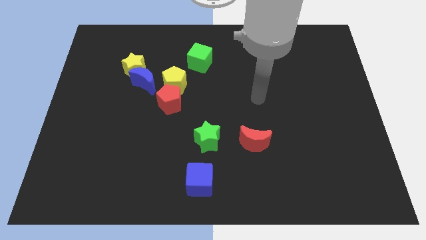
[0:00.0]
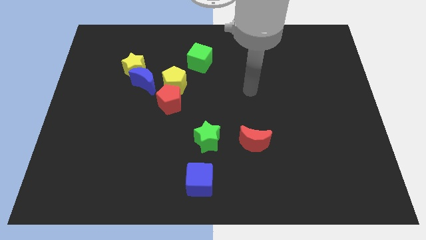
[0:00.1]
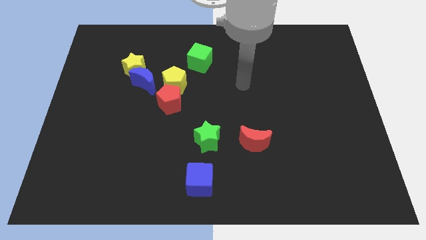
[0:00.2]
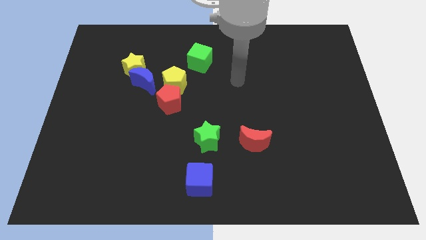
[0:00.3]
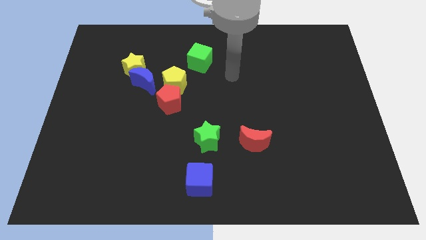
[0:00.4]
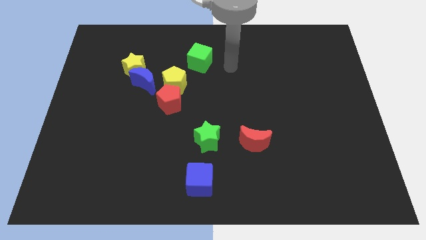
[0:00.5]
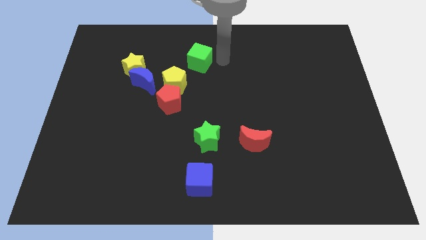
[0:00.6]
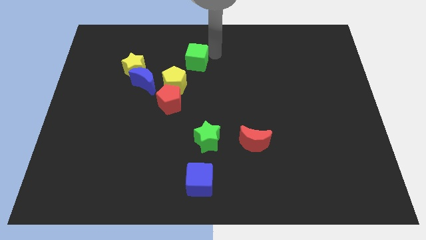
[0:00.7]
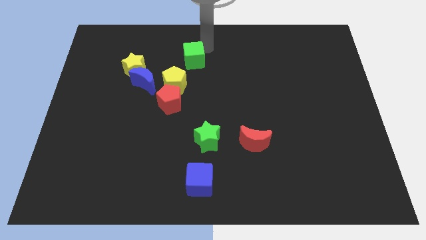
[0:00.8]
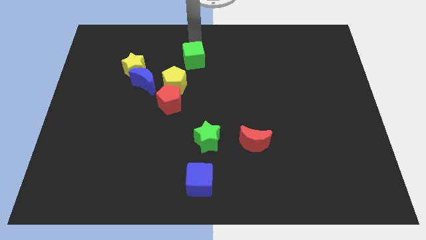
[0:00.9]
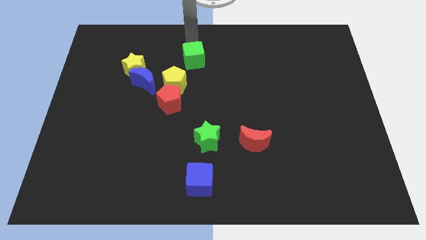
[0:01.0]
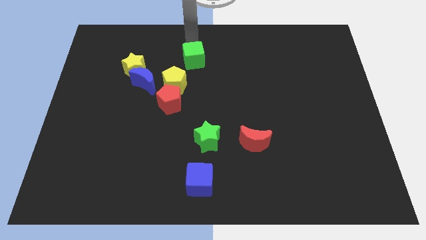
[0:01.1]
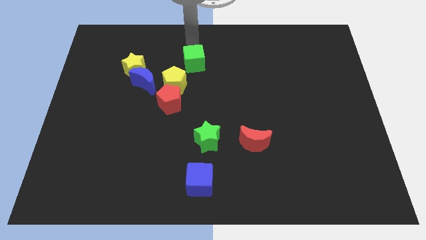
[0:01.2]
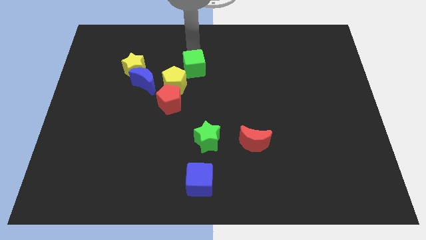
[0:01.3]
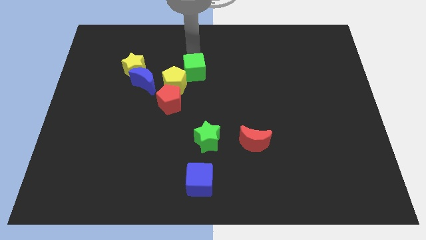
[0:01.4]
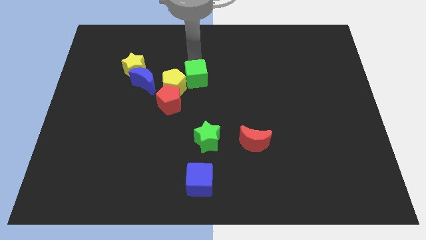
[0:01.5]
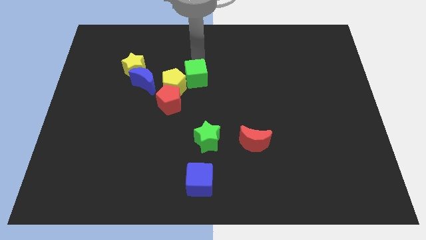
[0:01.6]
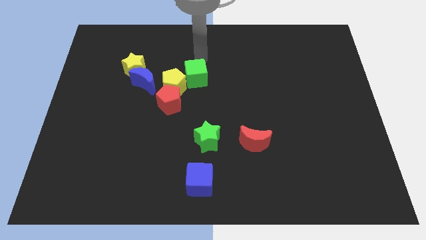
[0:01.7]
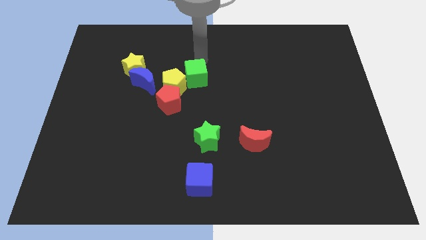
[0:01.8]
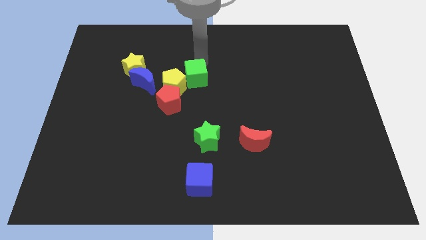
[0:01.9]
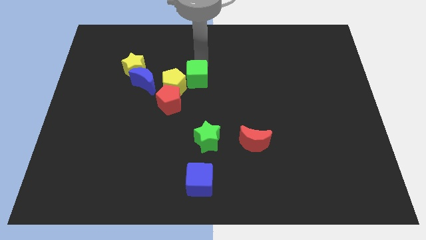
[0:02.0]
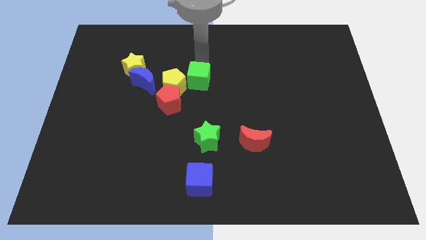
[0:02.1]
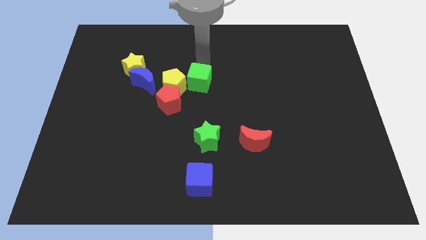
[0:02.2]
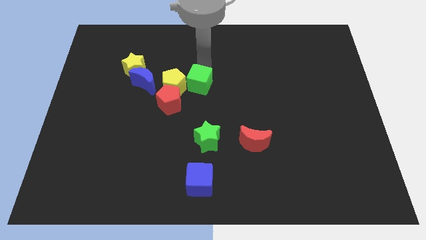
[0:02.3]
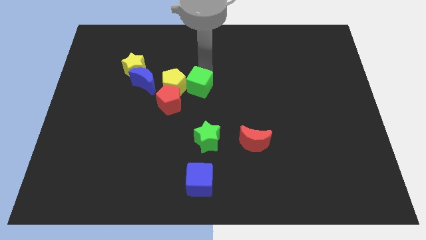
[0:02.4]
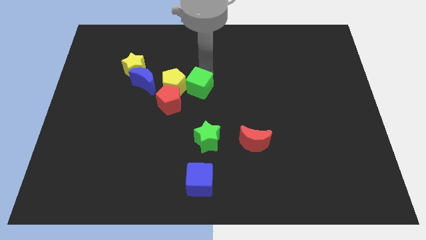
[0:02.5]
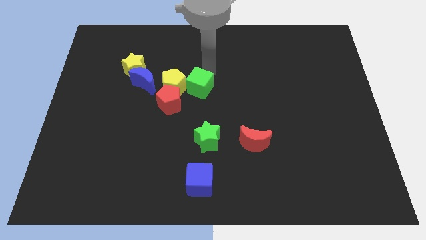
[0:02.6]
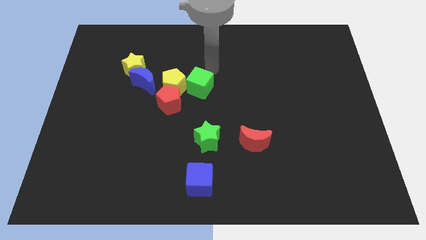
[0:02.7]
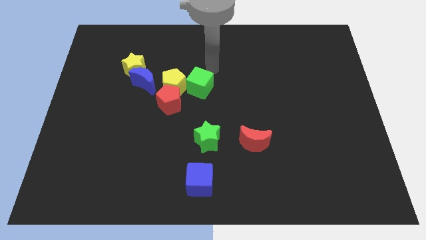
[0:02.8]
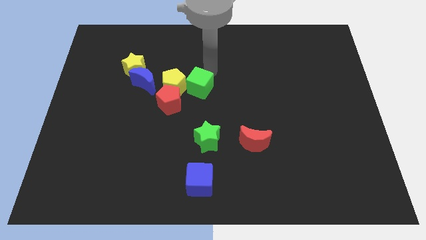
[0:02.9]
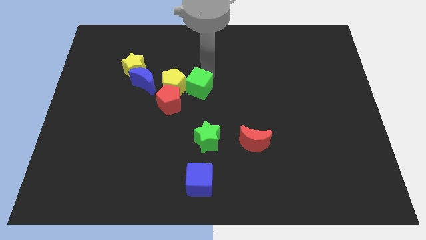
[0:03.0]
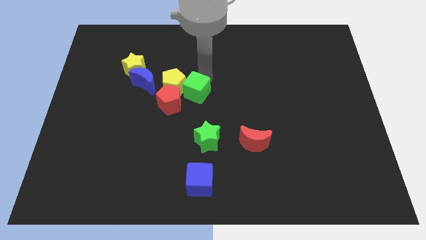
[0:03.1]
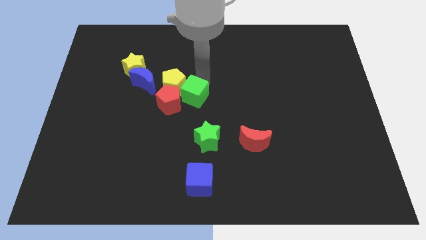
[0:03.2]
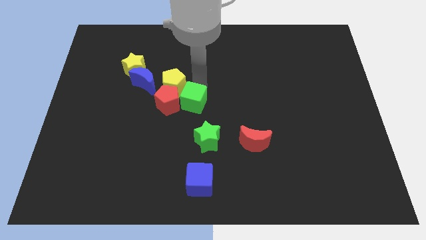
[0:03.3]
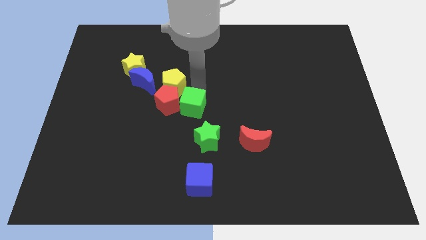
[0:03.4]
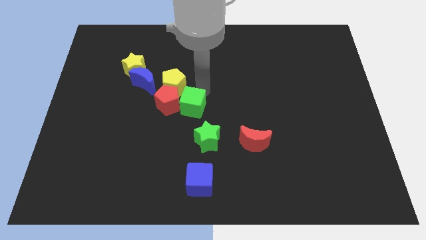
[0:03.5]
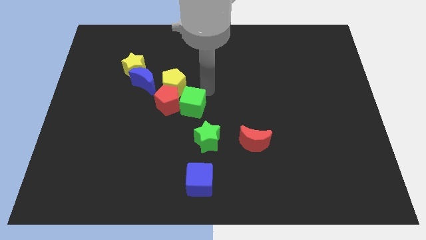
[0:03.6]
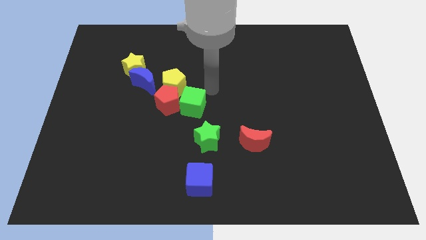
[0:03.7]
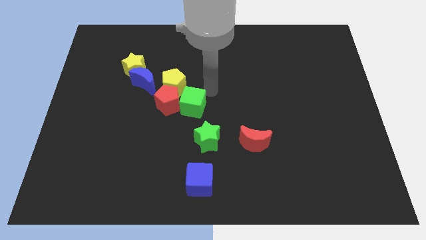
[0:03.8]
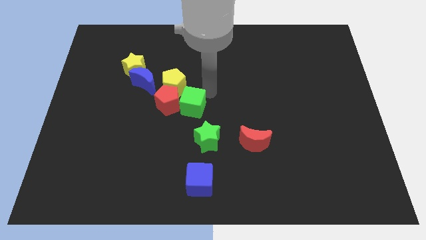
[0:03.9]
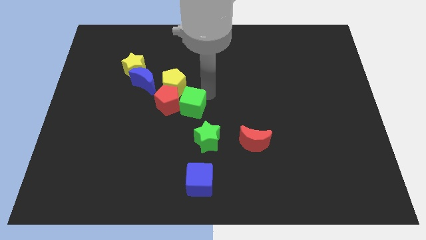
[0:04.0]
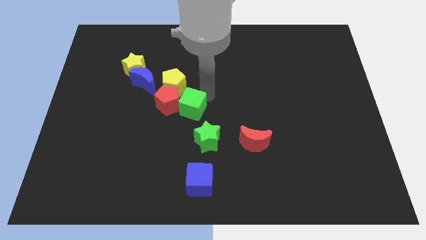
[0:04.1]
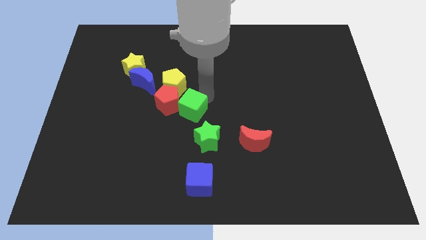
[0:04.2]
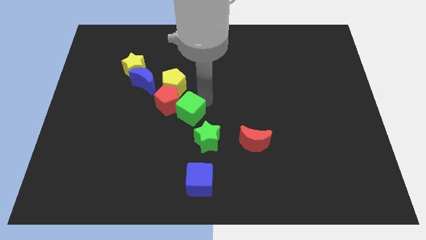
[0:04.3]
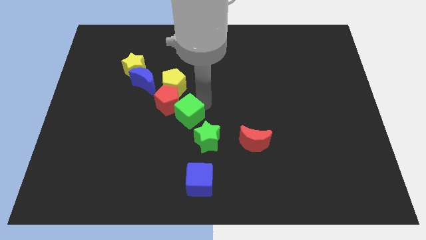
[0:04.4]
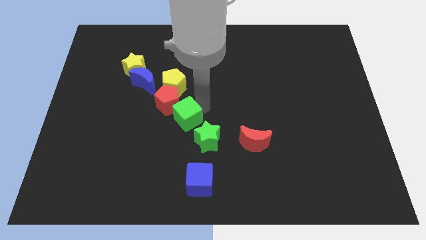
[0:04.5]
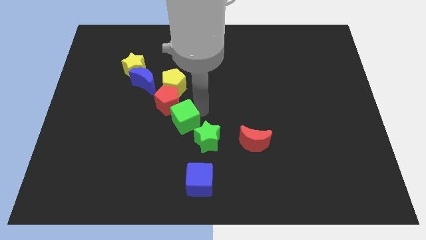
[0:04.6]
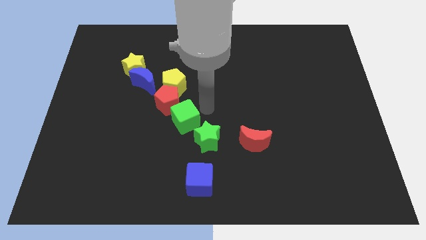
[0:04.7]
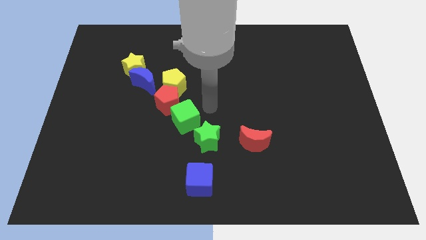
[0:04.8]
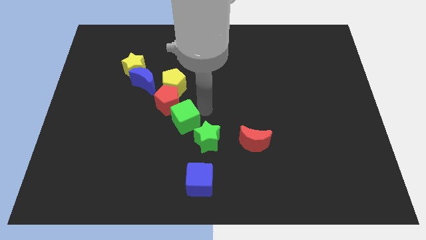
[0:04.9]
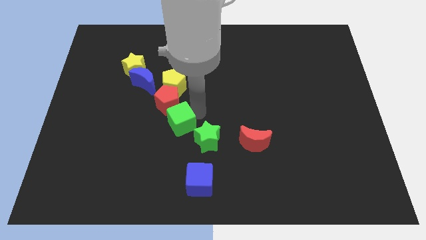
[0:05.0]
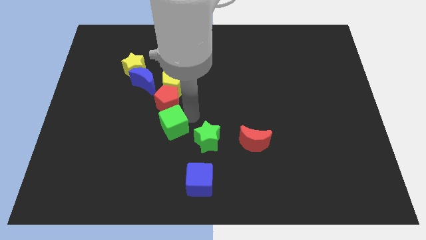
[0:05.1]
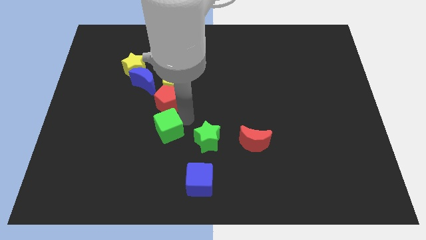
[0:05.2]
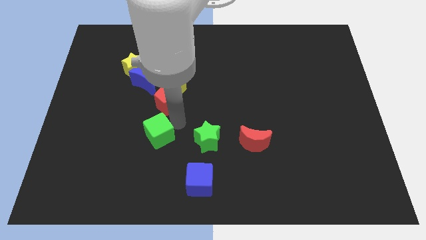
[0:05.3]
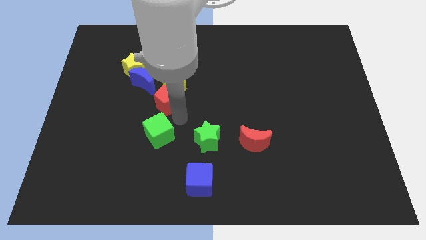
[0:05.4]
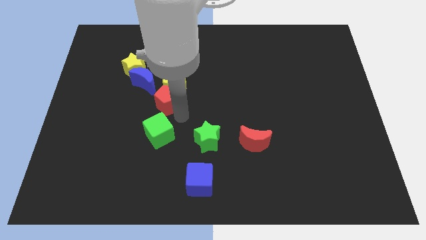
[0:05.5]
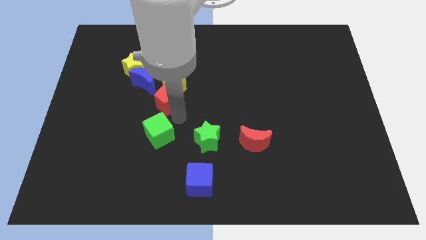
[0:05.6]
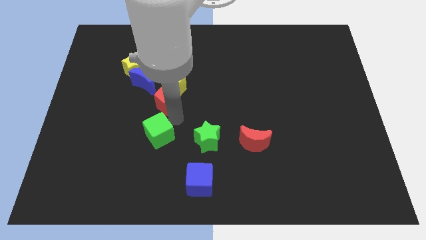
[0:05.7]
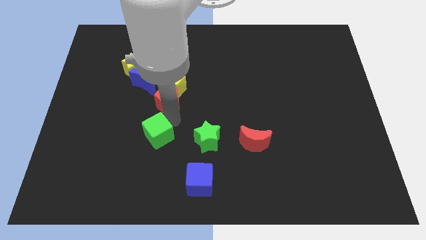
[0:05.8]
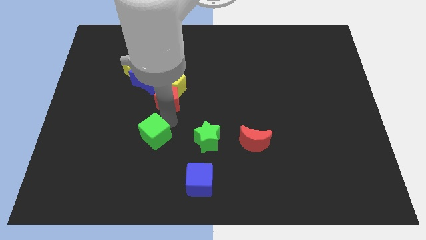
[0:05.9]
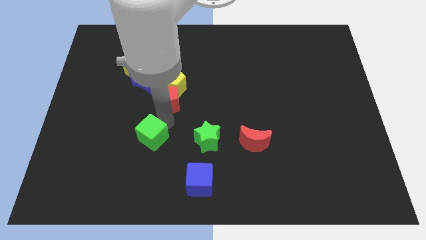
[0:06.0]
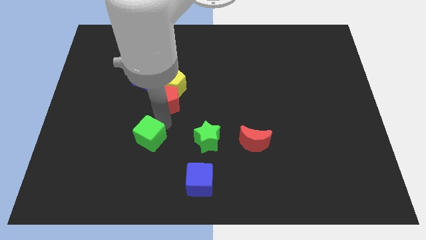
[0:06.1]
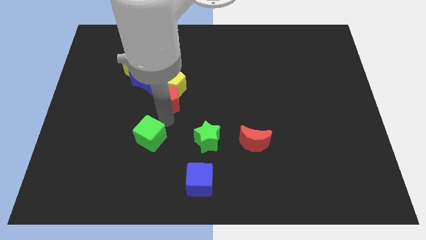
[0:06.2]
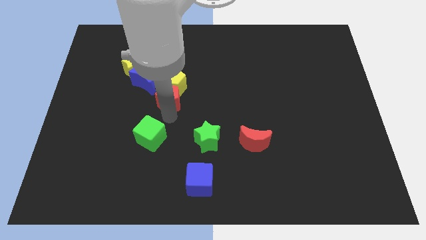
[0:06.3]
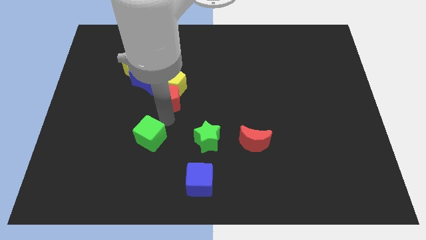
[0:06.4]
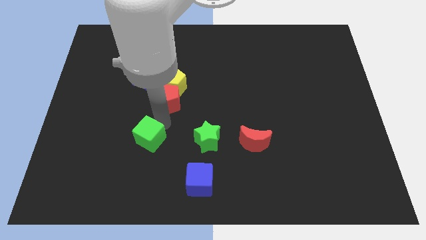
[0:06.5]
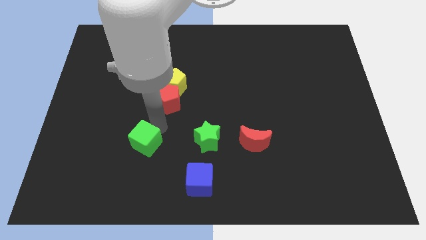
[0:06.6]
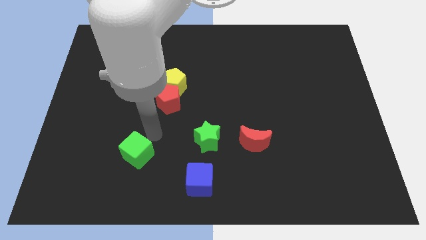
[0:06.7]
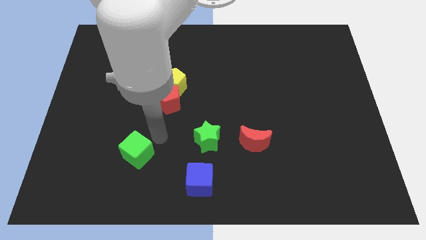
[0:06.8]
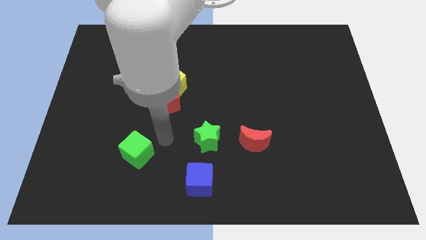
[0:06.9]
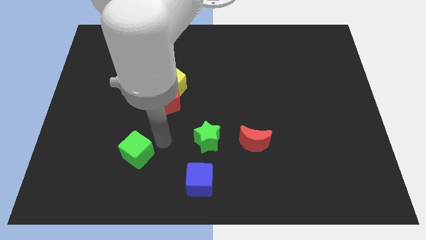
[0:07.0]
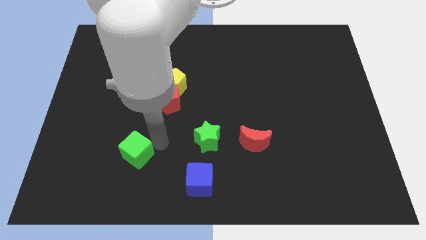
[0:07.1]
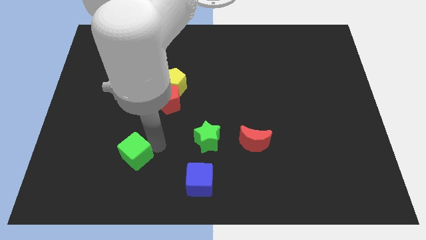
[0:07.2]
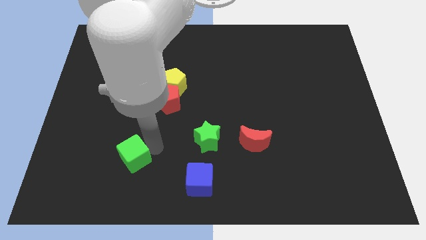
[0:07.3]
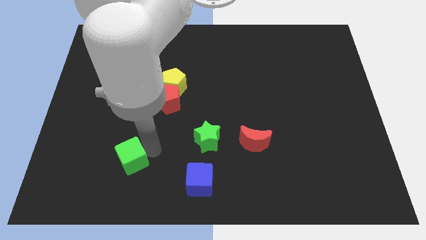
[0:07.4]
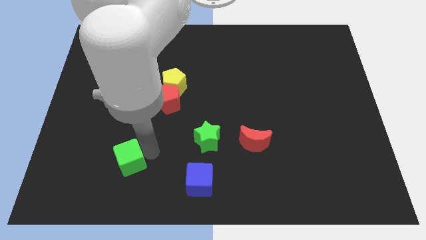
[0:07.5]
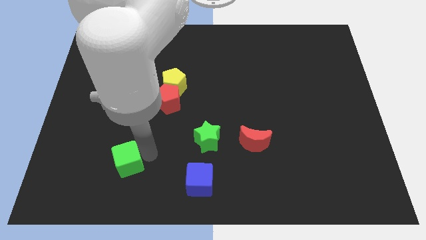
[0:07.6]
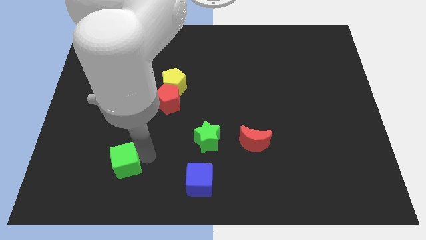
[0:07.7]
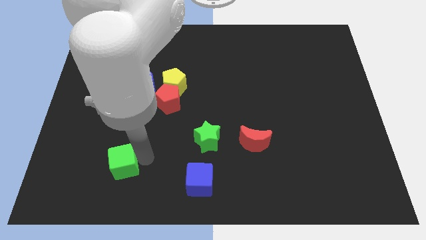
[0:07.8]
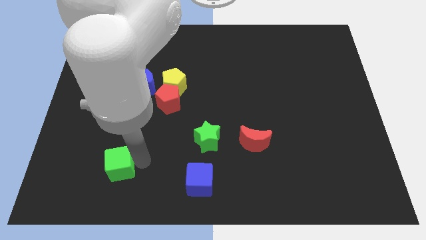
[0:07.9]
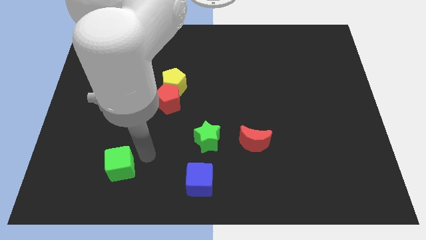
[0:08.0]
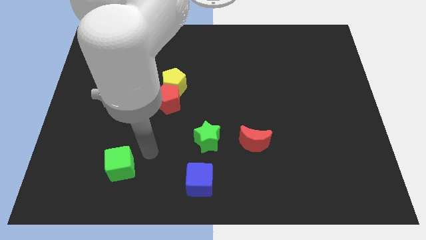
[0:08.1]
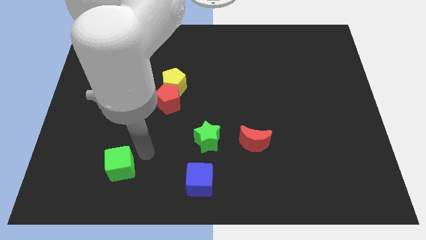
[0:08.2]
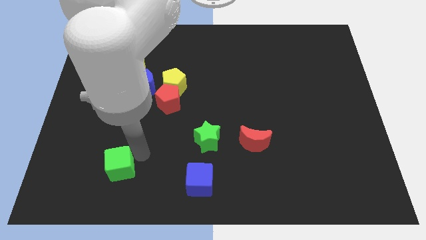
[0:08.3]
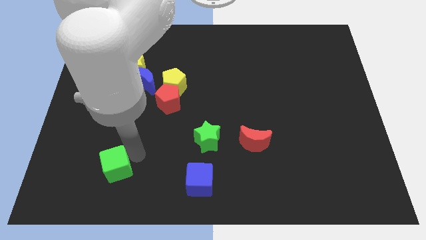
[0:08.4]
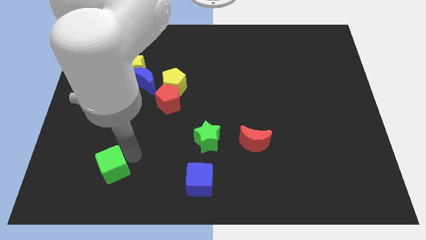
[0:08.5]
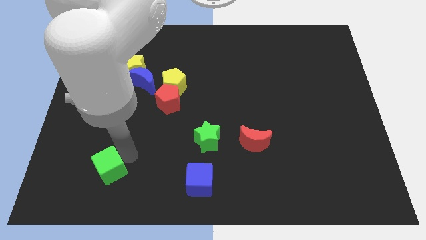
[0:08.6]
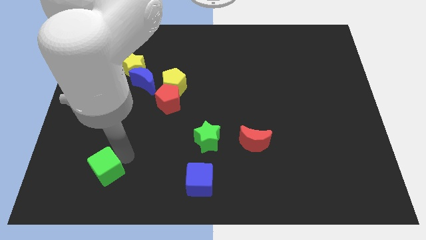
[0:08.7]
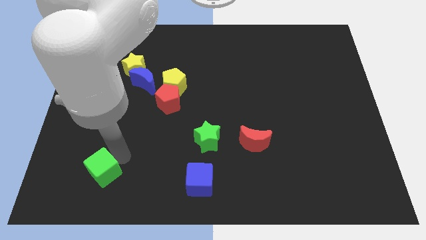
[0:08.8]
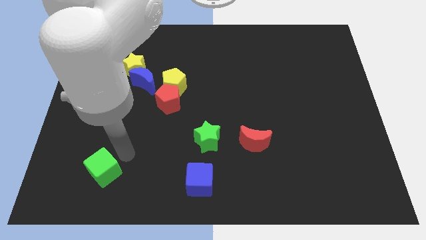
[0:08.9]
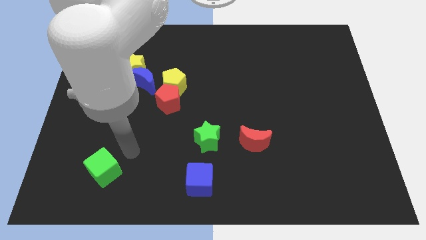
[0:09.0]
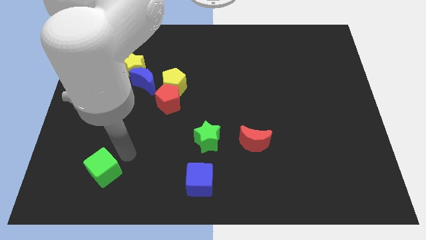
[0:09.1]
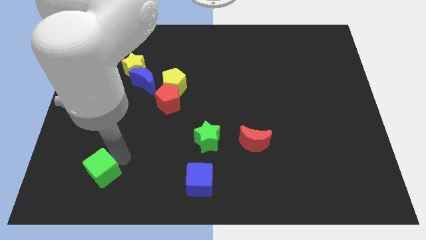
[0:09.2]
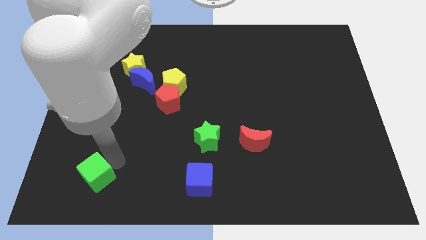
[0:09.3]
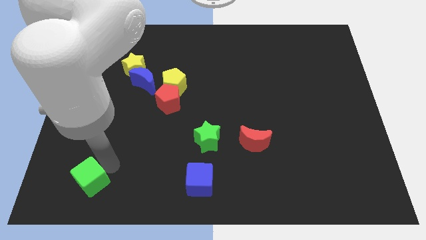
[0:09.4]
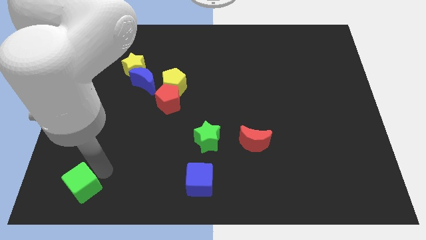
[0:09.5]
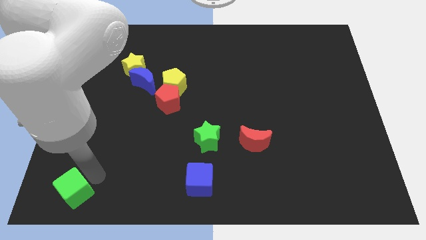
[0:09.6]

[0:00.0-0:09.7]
move the green cube to the bottom left
